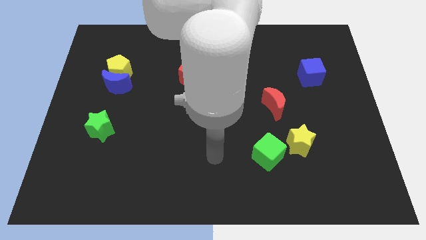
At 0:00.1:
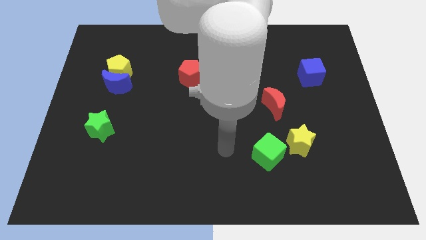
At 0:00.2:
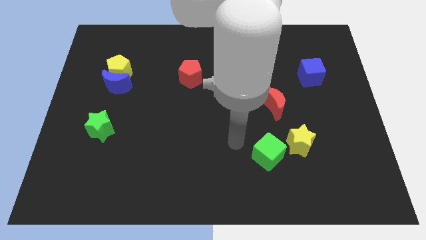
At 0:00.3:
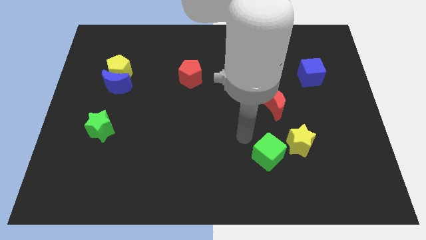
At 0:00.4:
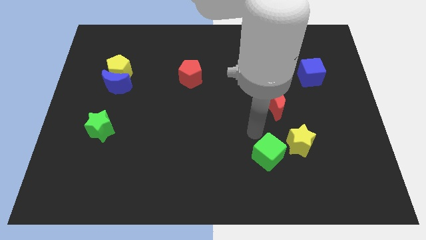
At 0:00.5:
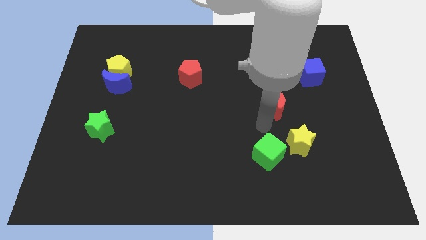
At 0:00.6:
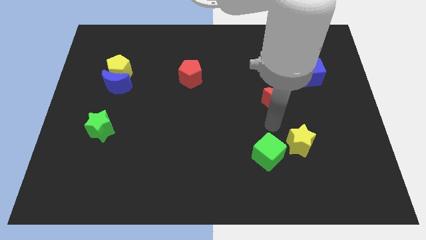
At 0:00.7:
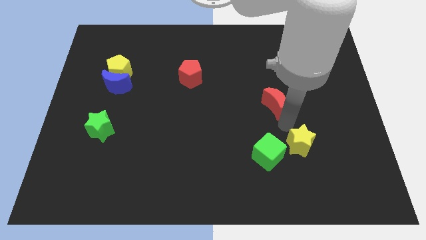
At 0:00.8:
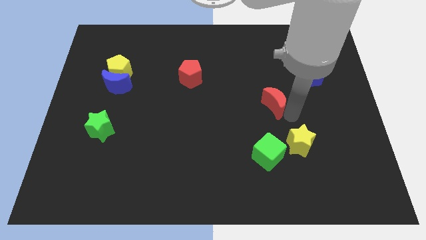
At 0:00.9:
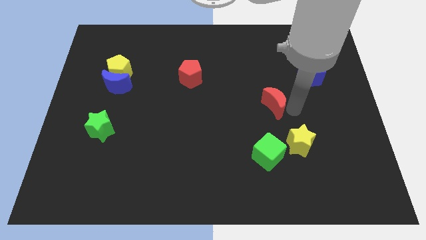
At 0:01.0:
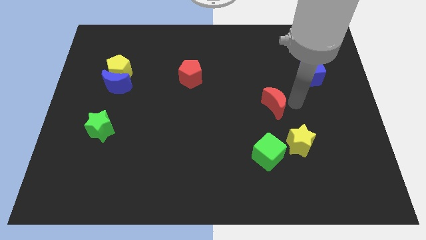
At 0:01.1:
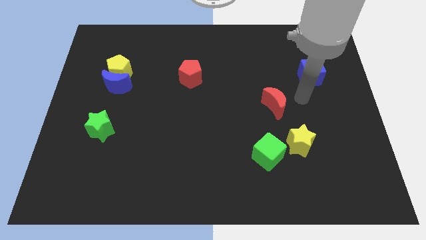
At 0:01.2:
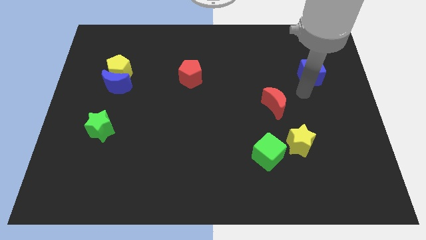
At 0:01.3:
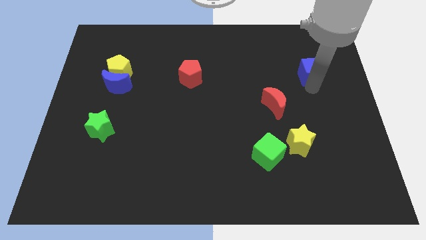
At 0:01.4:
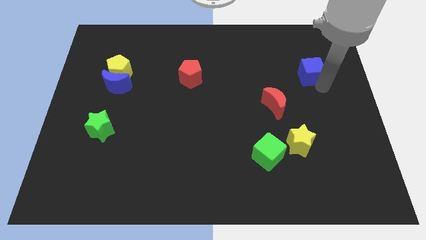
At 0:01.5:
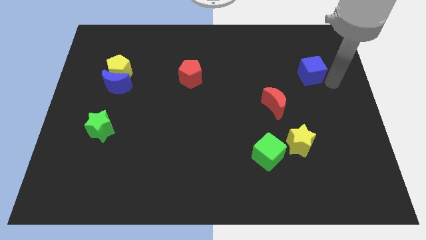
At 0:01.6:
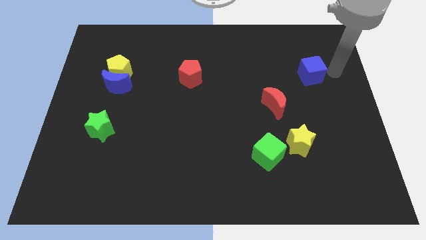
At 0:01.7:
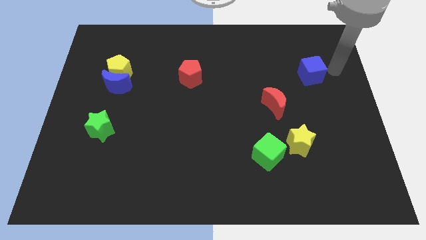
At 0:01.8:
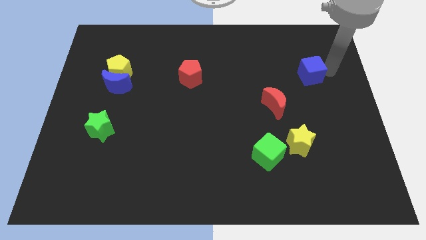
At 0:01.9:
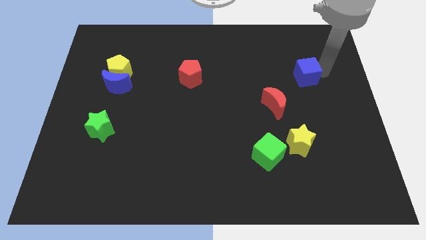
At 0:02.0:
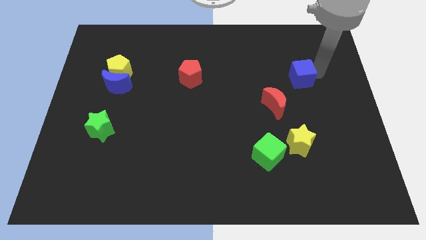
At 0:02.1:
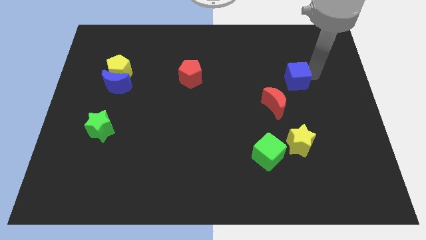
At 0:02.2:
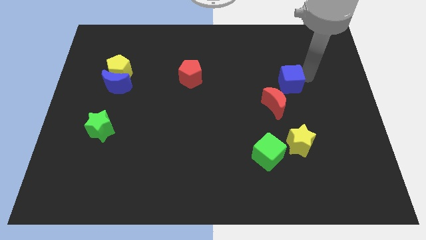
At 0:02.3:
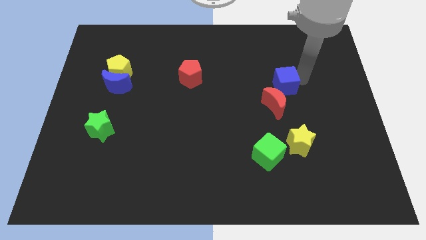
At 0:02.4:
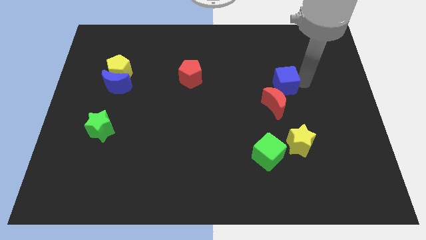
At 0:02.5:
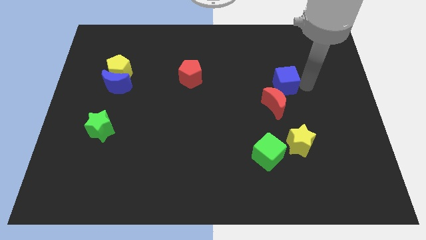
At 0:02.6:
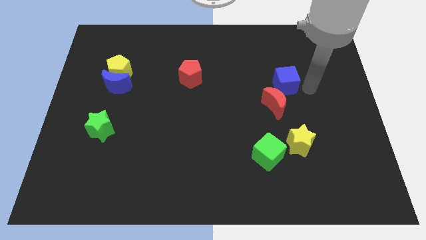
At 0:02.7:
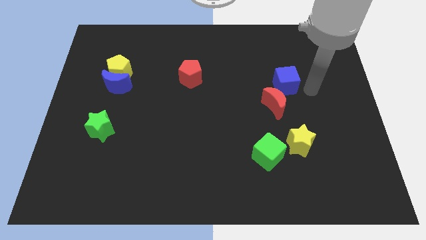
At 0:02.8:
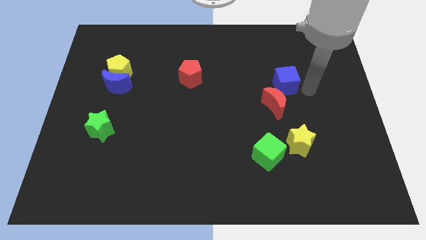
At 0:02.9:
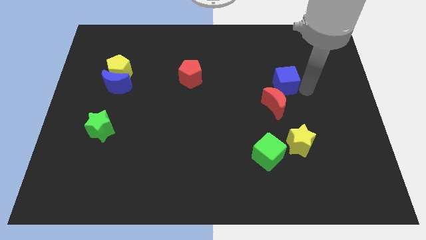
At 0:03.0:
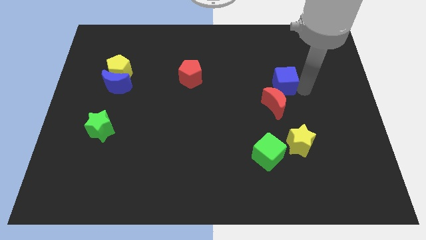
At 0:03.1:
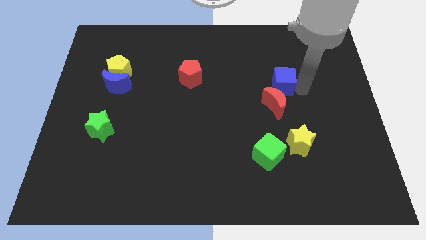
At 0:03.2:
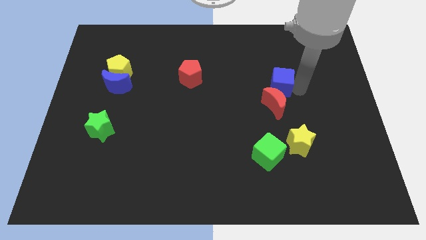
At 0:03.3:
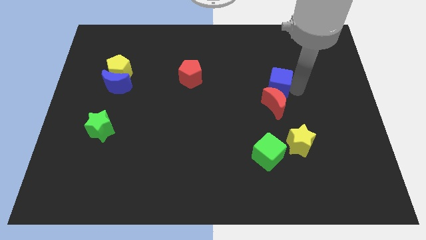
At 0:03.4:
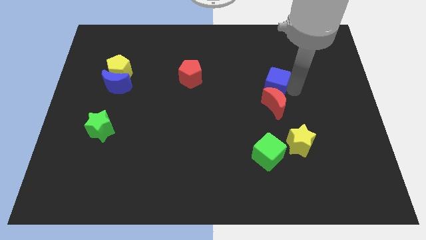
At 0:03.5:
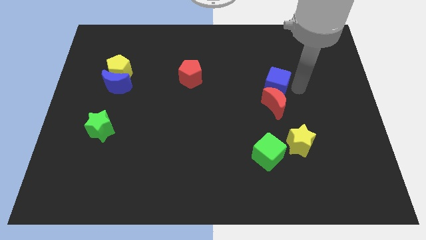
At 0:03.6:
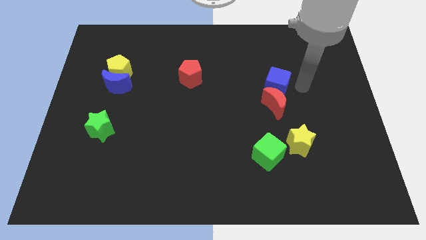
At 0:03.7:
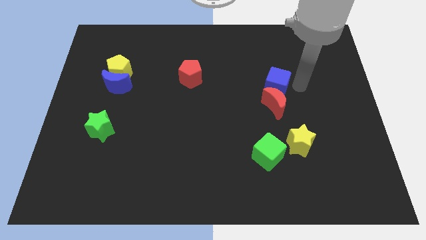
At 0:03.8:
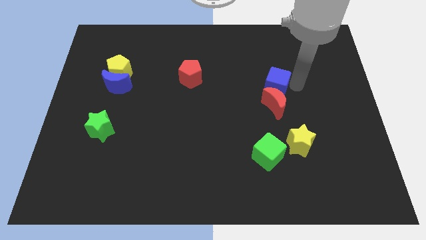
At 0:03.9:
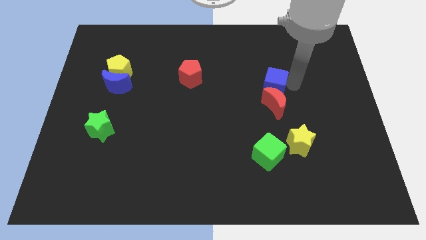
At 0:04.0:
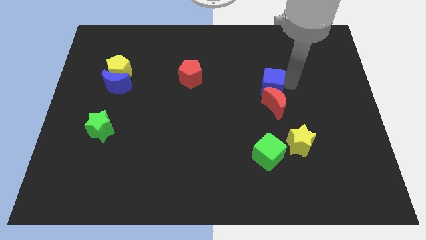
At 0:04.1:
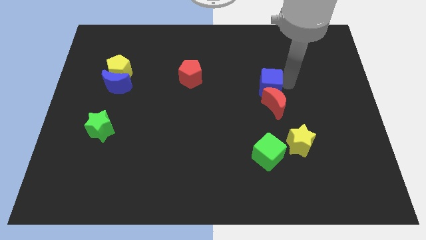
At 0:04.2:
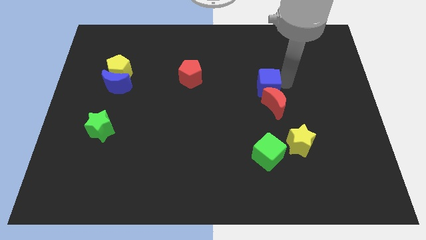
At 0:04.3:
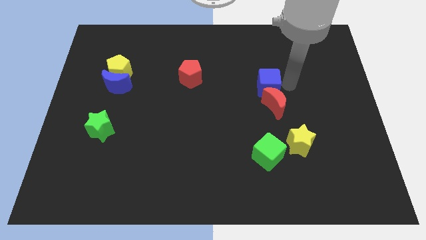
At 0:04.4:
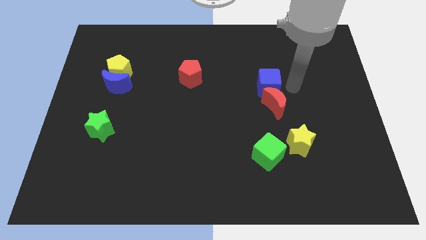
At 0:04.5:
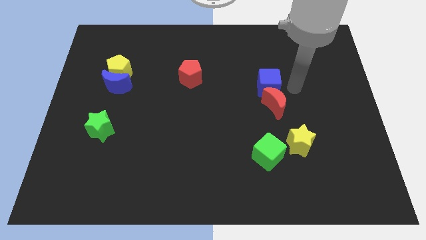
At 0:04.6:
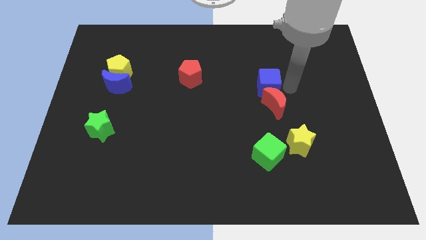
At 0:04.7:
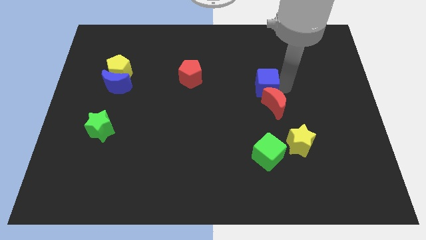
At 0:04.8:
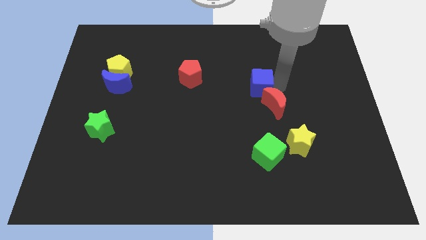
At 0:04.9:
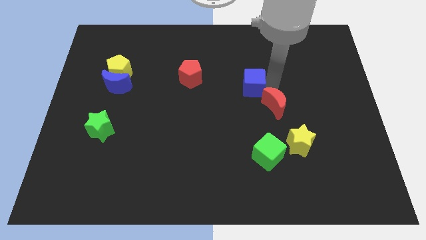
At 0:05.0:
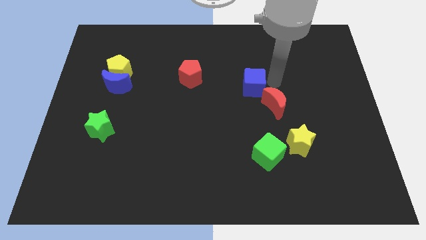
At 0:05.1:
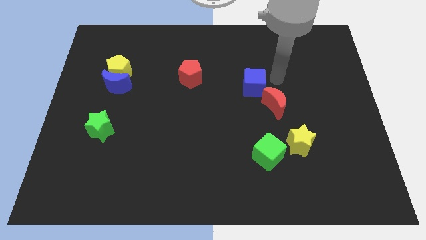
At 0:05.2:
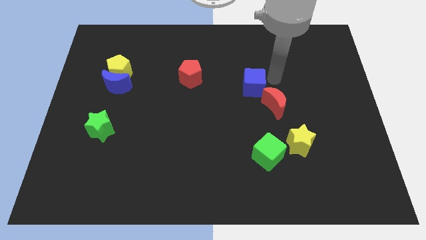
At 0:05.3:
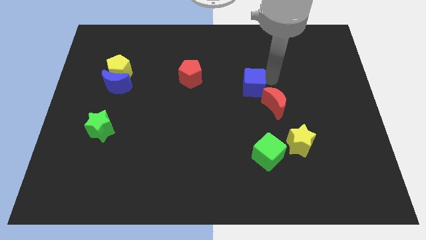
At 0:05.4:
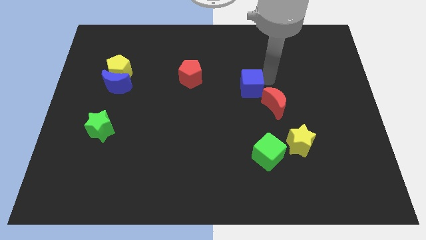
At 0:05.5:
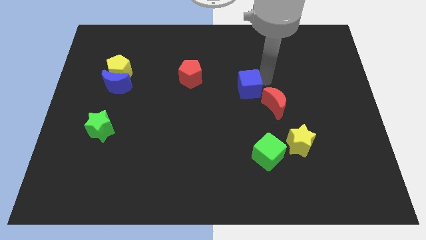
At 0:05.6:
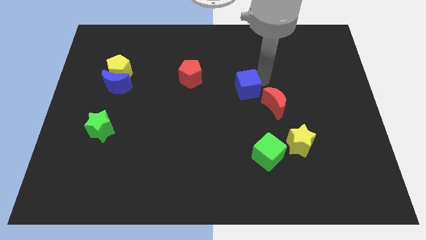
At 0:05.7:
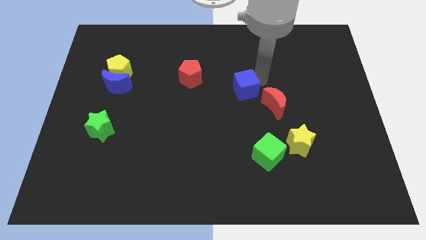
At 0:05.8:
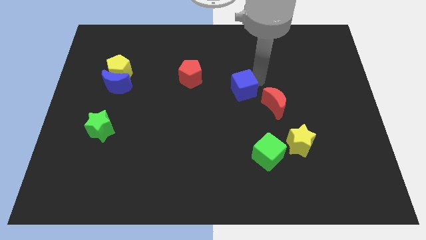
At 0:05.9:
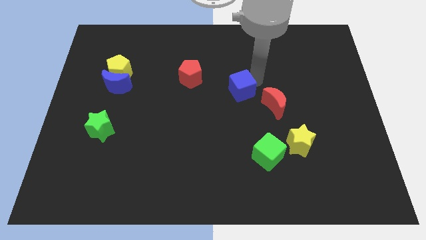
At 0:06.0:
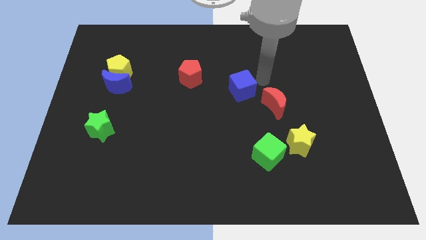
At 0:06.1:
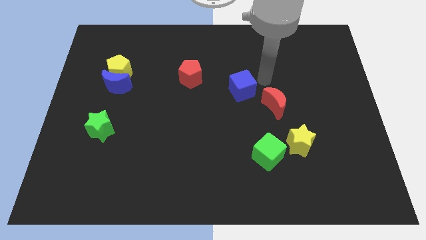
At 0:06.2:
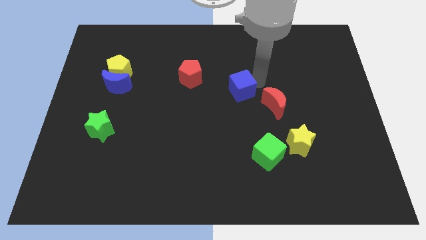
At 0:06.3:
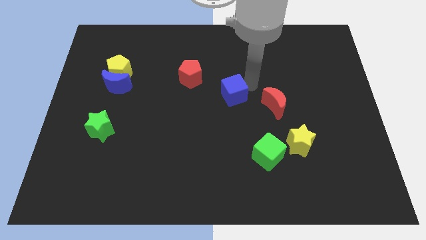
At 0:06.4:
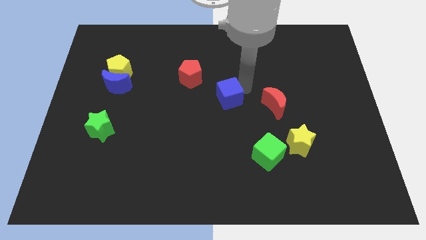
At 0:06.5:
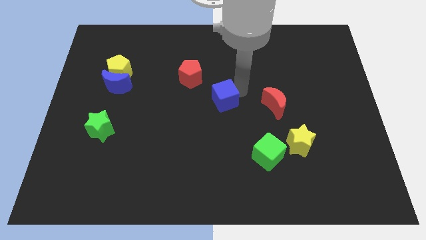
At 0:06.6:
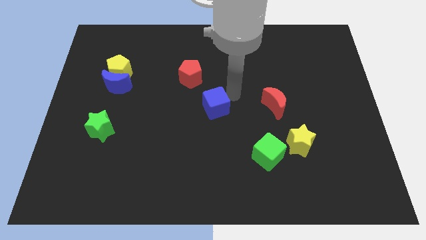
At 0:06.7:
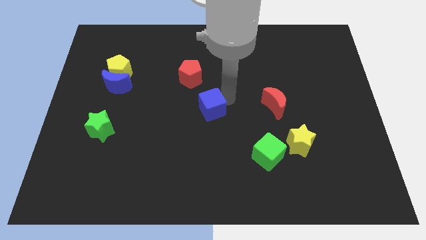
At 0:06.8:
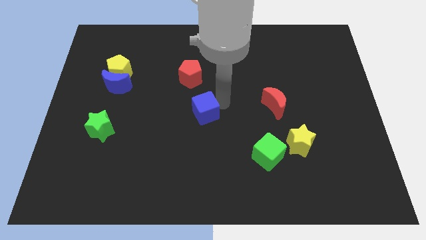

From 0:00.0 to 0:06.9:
slide the blue cube to the bottom side of the red pentagon

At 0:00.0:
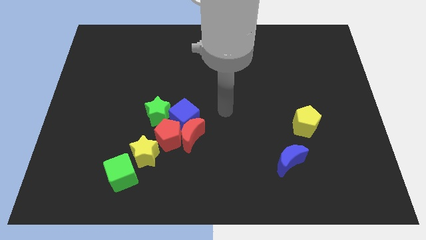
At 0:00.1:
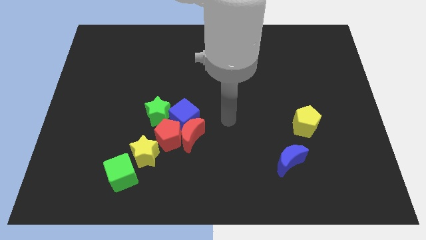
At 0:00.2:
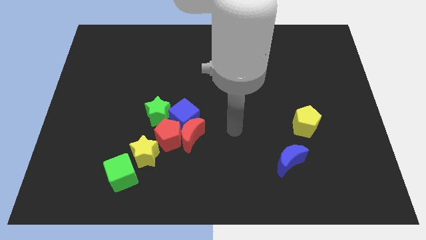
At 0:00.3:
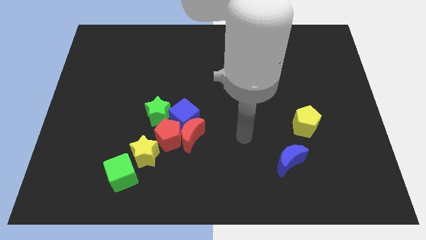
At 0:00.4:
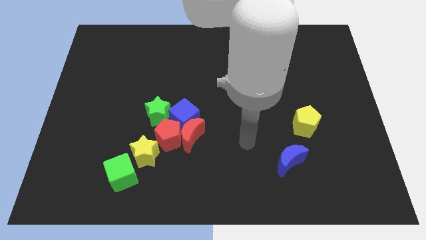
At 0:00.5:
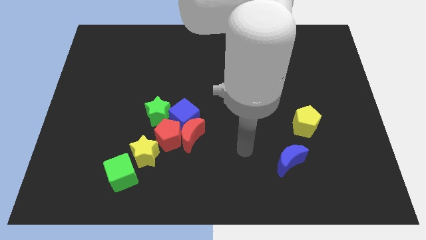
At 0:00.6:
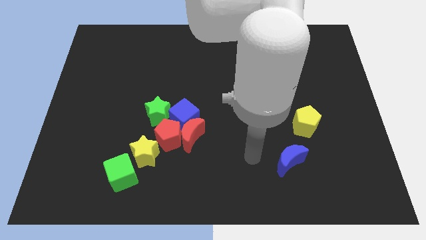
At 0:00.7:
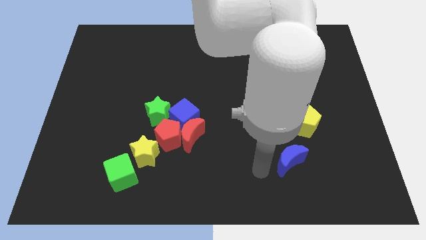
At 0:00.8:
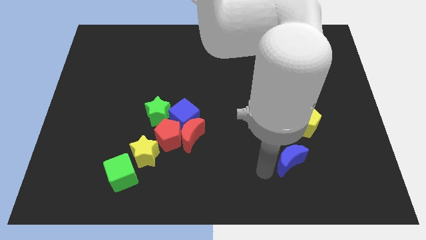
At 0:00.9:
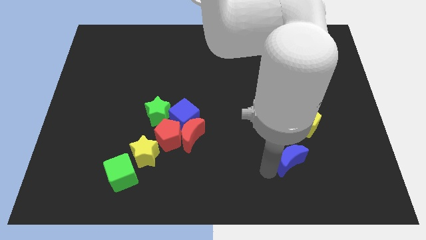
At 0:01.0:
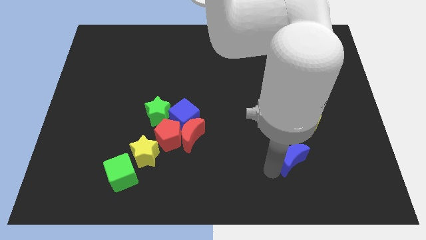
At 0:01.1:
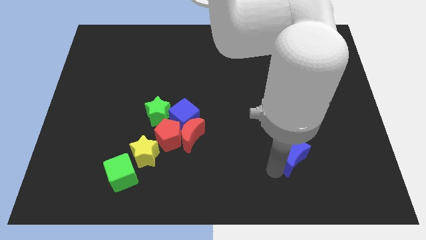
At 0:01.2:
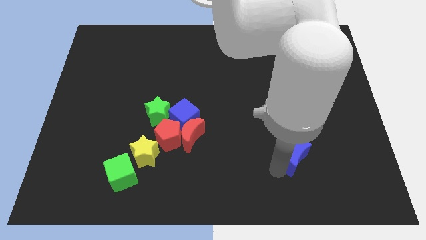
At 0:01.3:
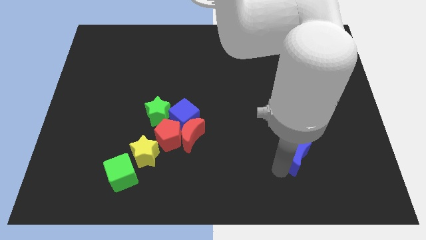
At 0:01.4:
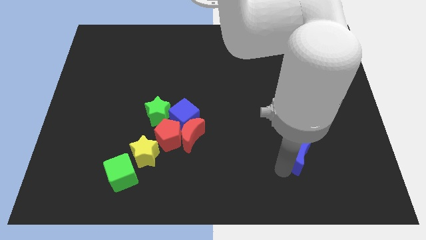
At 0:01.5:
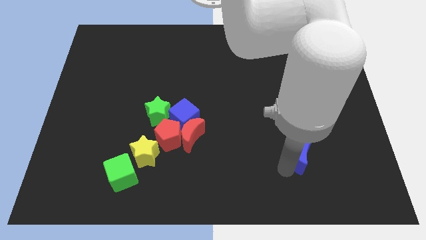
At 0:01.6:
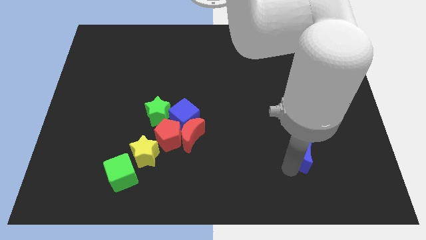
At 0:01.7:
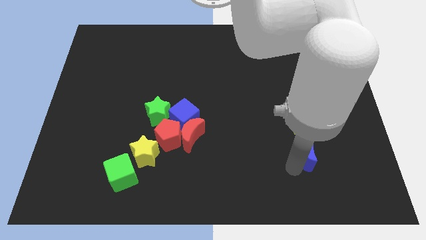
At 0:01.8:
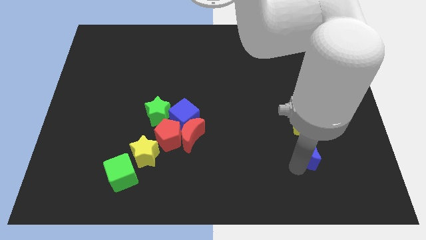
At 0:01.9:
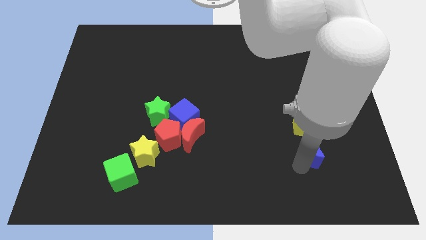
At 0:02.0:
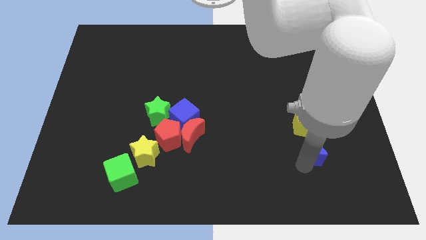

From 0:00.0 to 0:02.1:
put the blue moon to the bottom right side of the yellow pentagon
